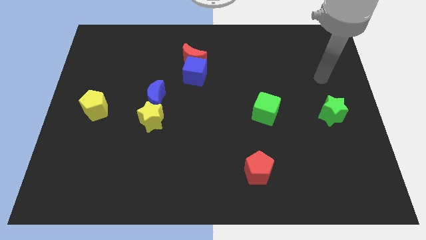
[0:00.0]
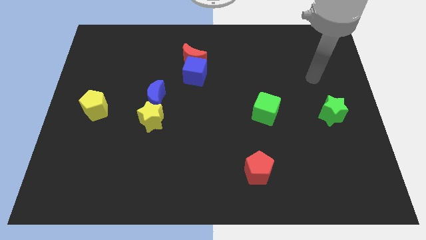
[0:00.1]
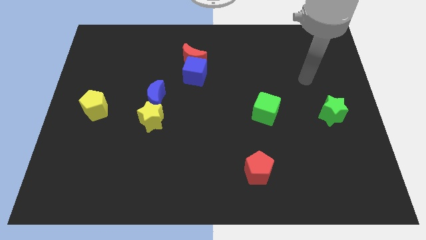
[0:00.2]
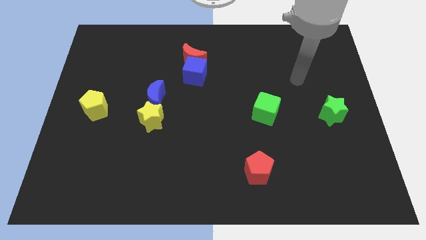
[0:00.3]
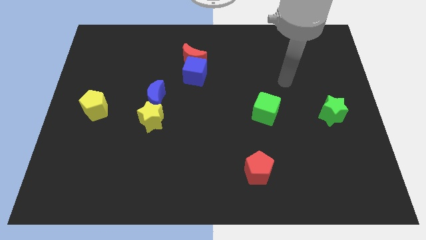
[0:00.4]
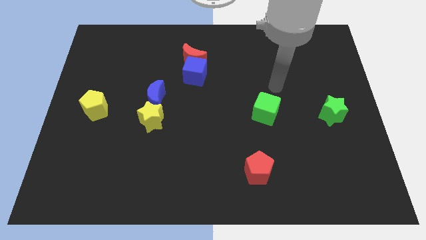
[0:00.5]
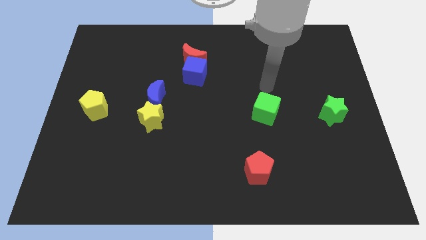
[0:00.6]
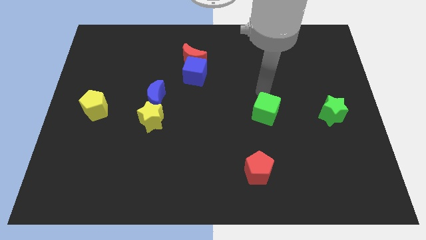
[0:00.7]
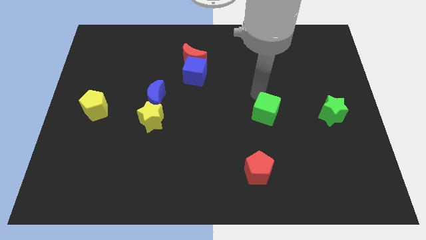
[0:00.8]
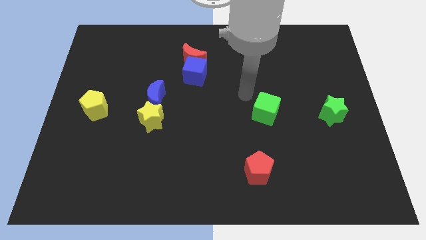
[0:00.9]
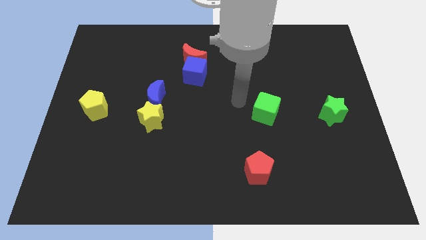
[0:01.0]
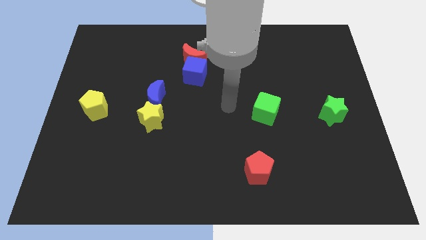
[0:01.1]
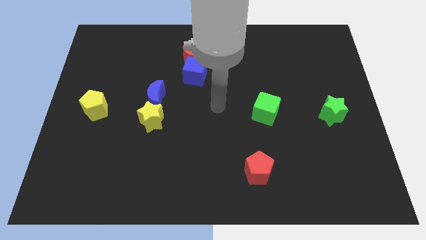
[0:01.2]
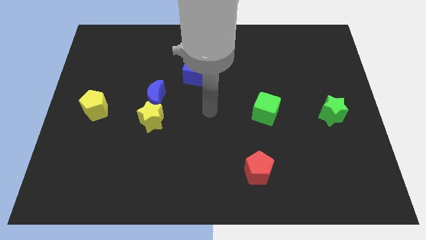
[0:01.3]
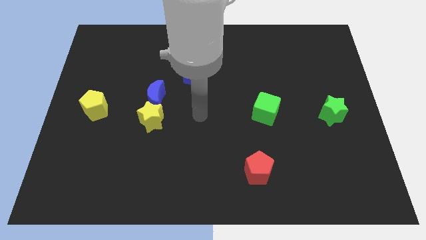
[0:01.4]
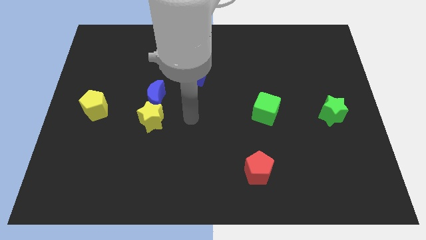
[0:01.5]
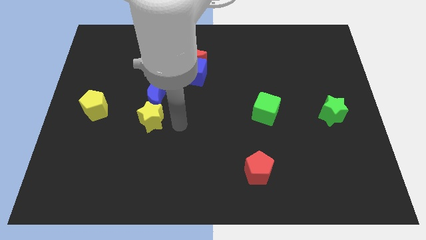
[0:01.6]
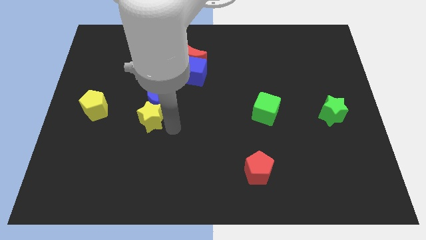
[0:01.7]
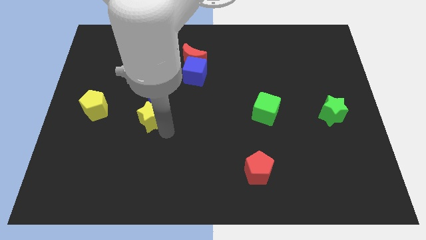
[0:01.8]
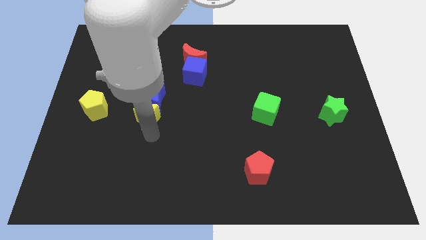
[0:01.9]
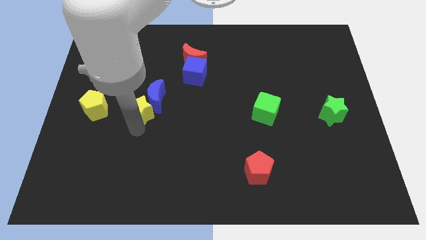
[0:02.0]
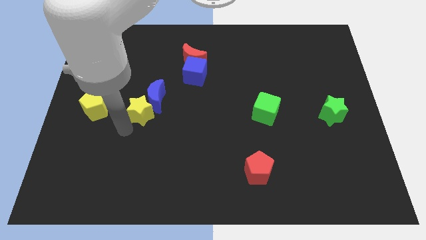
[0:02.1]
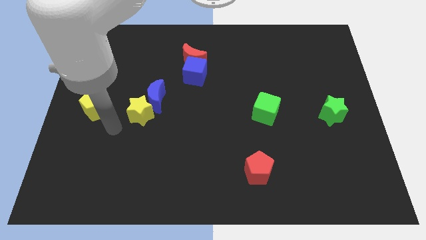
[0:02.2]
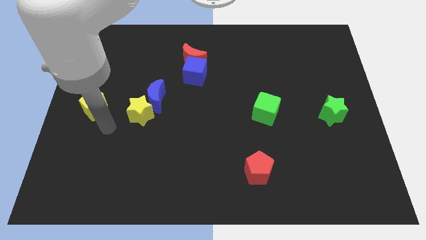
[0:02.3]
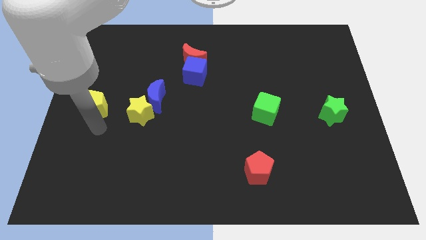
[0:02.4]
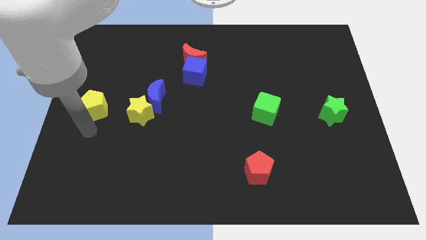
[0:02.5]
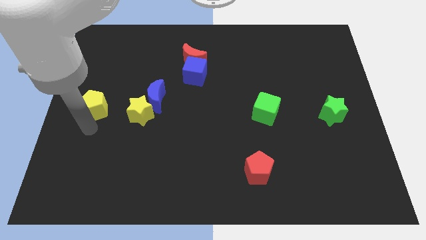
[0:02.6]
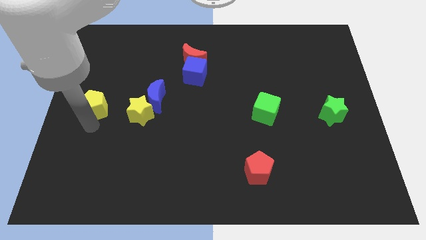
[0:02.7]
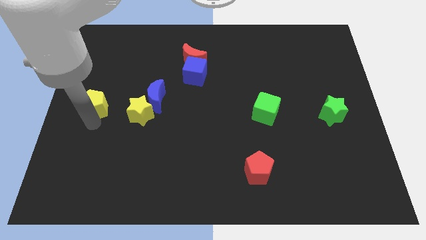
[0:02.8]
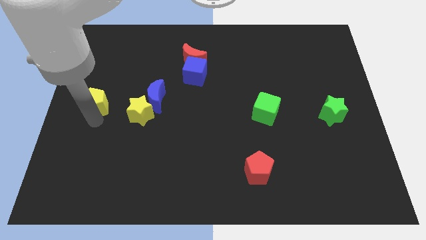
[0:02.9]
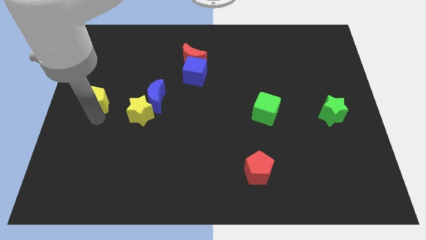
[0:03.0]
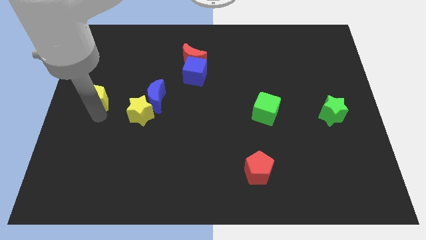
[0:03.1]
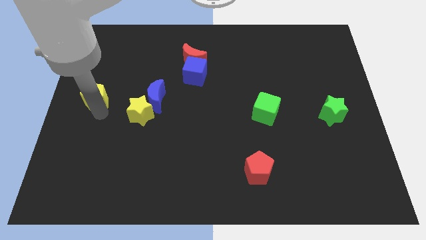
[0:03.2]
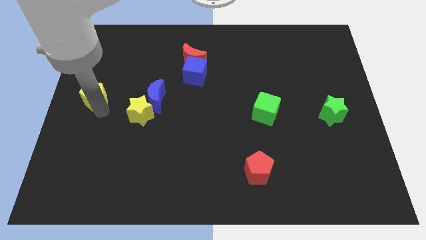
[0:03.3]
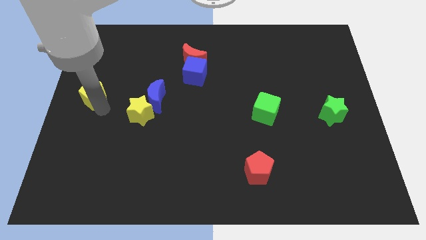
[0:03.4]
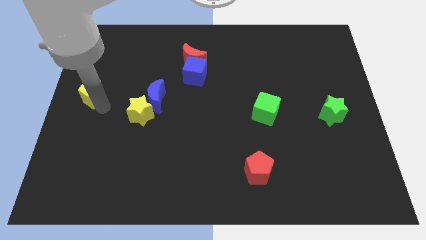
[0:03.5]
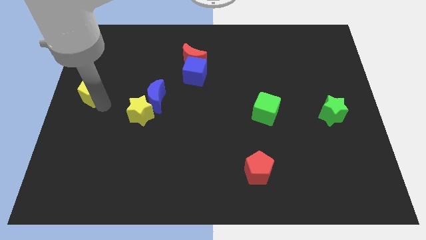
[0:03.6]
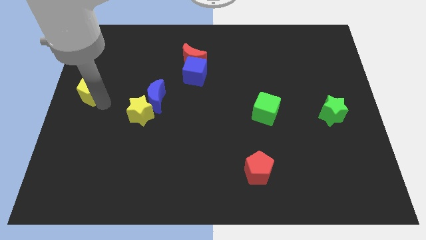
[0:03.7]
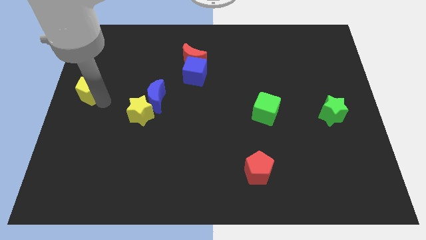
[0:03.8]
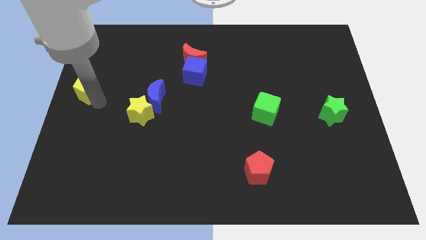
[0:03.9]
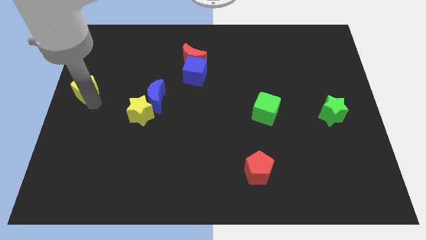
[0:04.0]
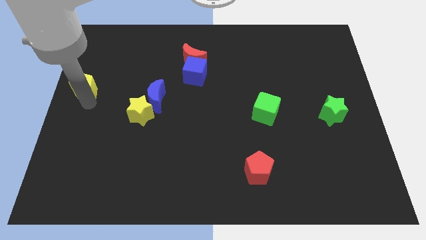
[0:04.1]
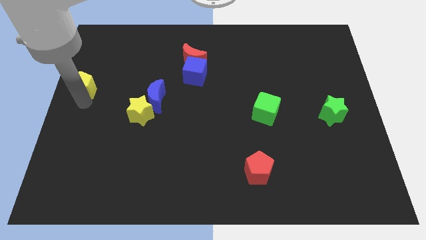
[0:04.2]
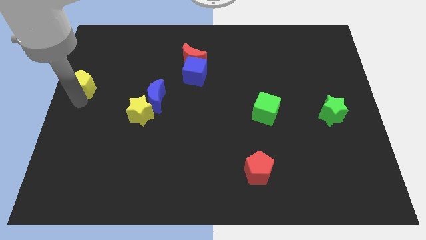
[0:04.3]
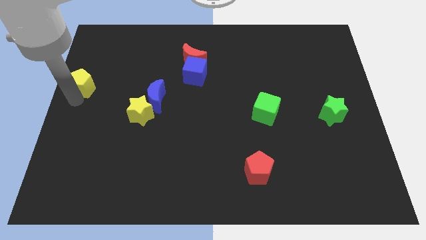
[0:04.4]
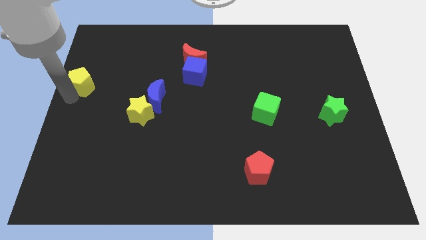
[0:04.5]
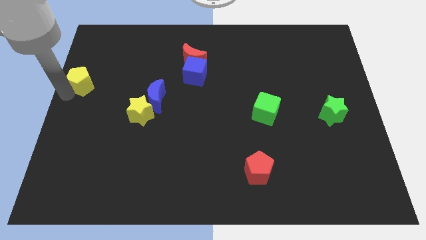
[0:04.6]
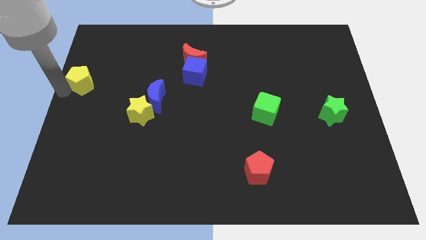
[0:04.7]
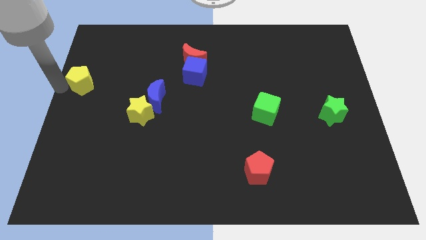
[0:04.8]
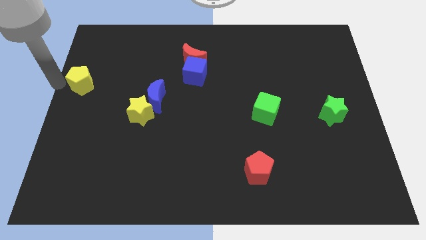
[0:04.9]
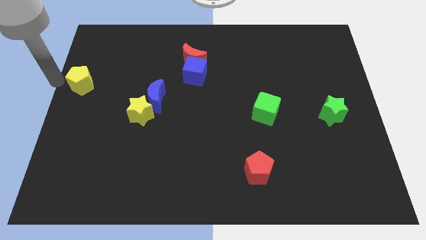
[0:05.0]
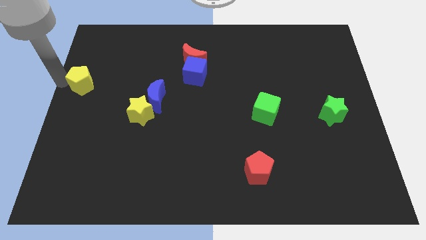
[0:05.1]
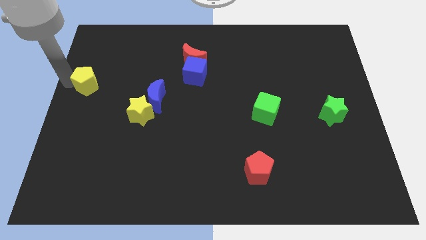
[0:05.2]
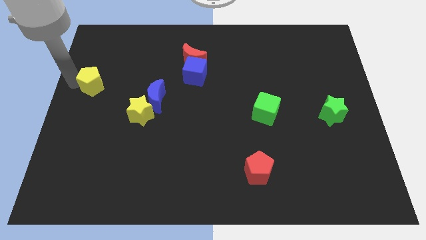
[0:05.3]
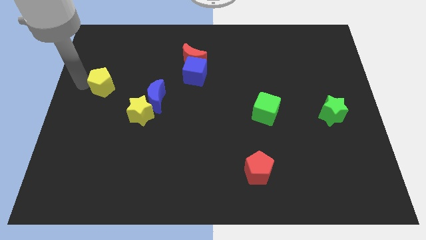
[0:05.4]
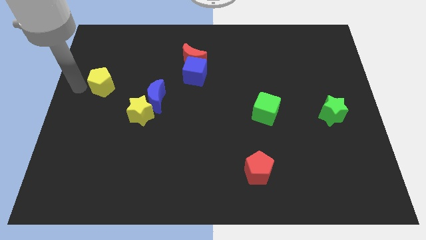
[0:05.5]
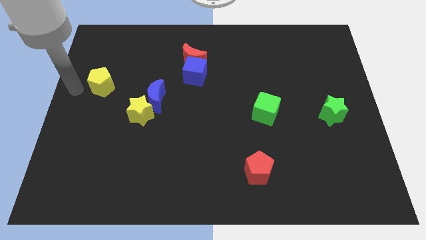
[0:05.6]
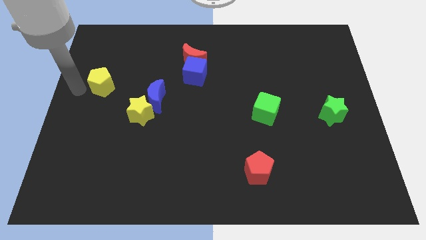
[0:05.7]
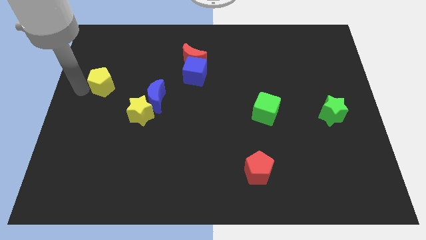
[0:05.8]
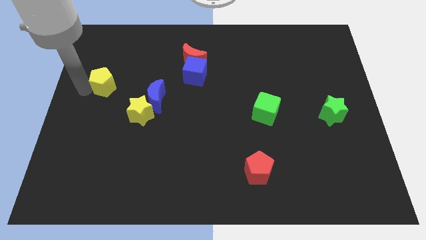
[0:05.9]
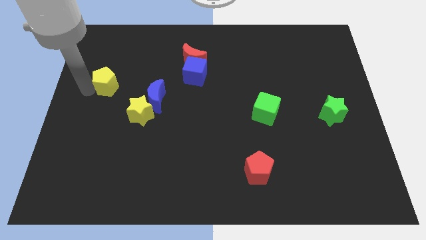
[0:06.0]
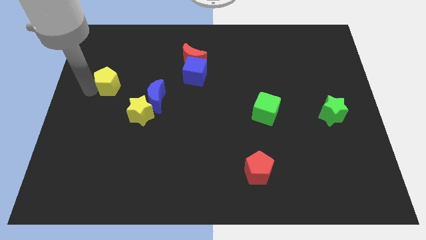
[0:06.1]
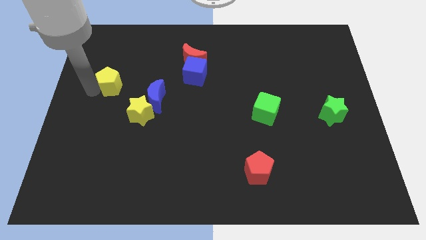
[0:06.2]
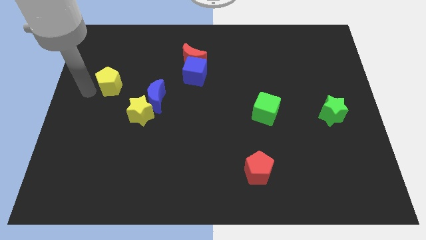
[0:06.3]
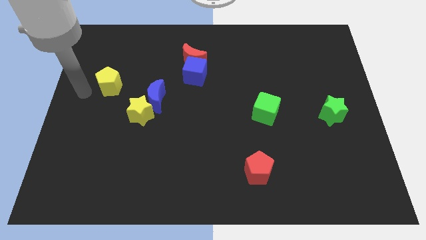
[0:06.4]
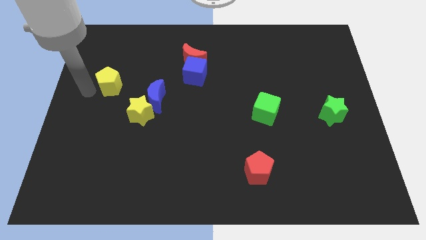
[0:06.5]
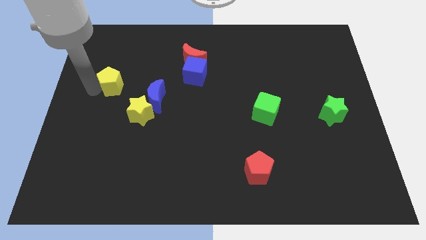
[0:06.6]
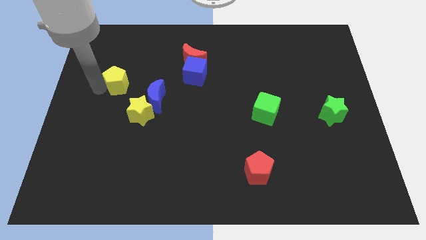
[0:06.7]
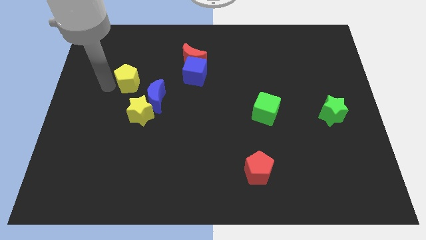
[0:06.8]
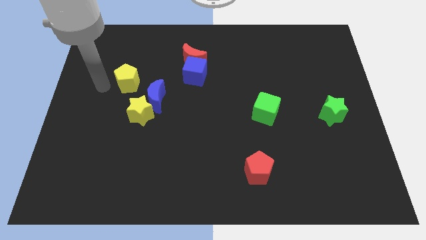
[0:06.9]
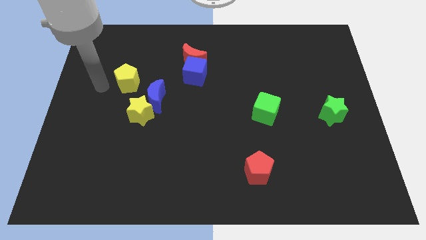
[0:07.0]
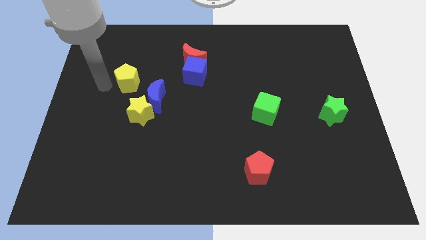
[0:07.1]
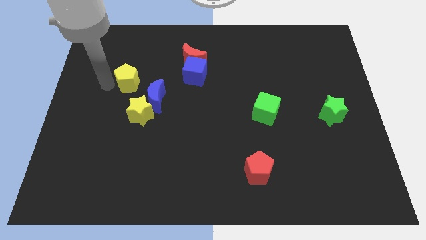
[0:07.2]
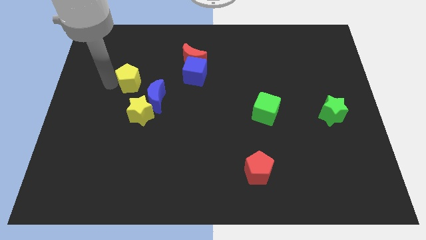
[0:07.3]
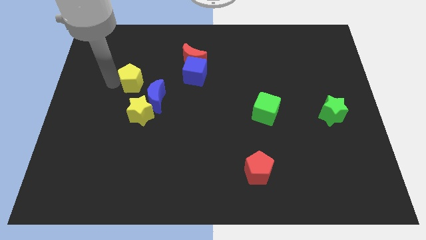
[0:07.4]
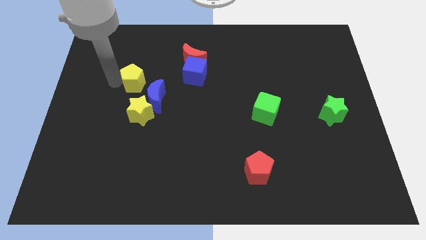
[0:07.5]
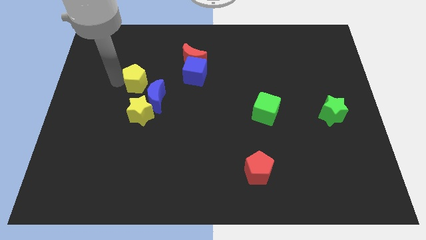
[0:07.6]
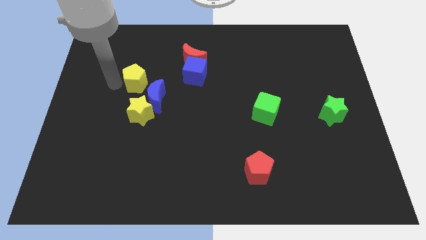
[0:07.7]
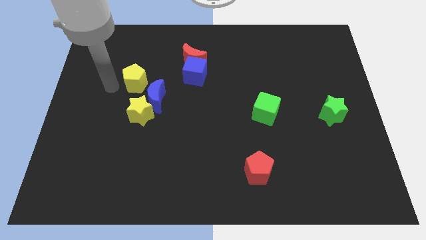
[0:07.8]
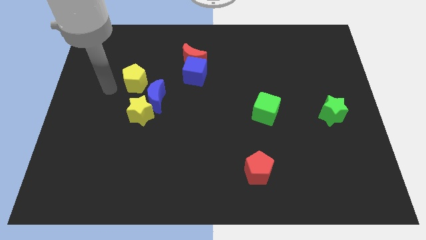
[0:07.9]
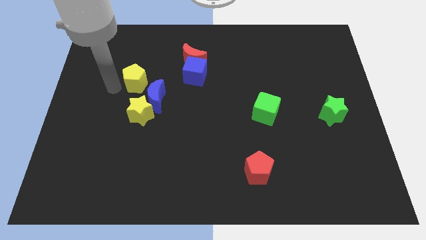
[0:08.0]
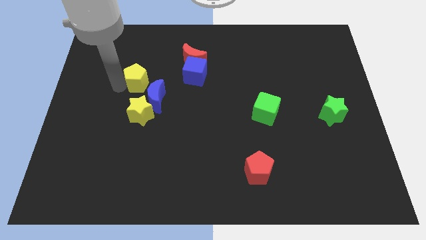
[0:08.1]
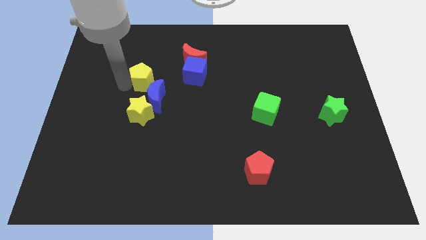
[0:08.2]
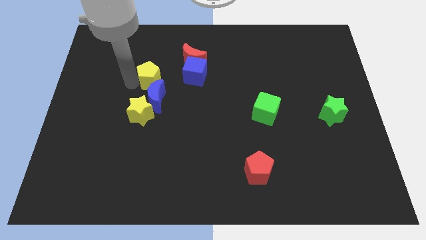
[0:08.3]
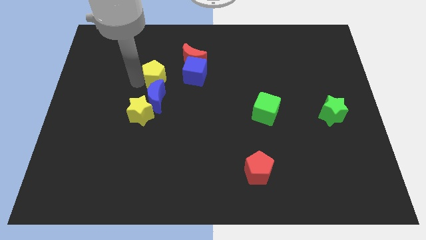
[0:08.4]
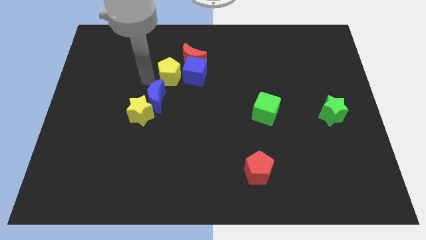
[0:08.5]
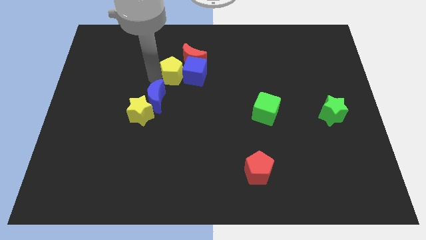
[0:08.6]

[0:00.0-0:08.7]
push the yellow pentagon to the blue cube
